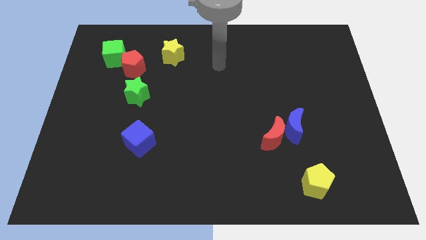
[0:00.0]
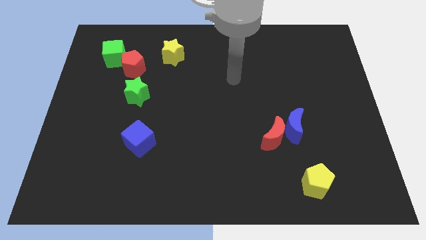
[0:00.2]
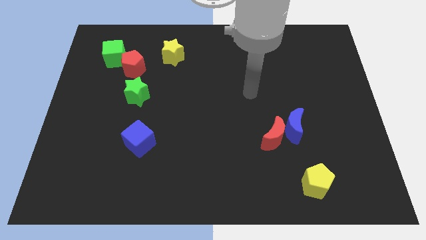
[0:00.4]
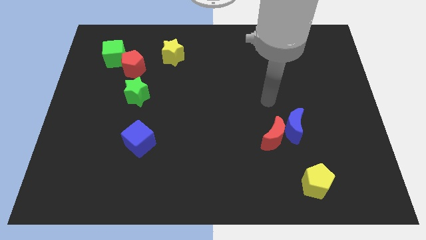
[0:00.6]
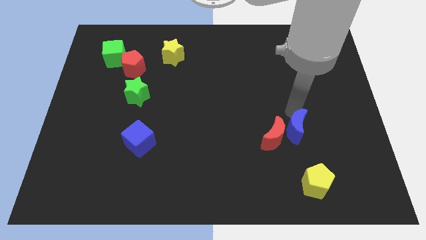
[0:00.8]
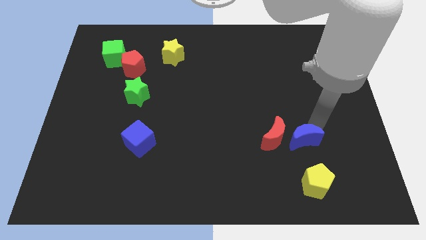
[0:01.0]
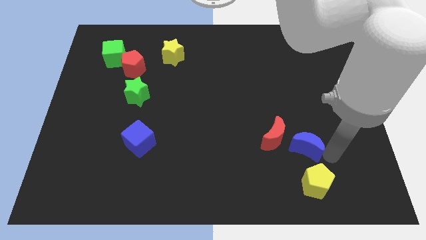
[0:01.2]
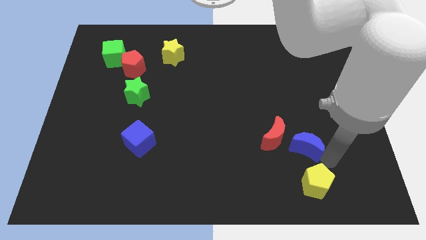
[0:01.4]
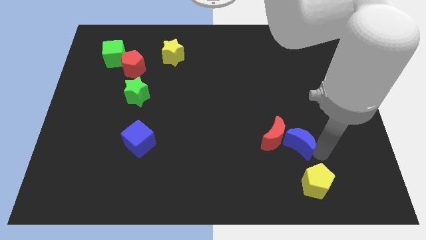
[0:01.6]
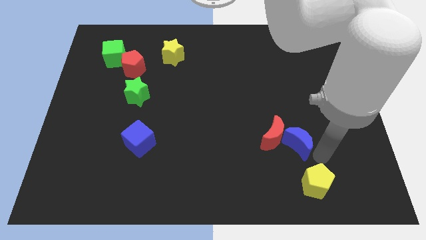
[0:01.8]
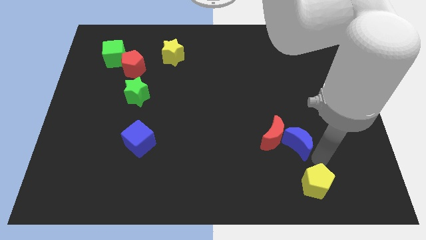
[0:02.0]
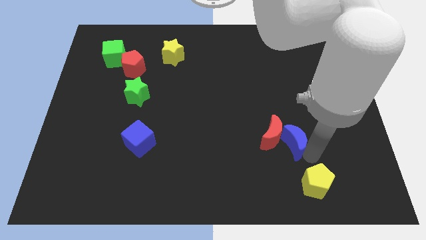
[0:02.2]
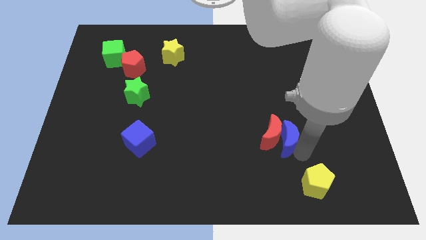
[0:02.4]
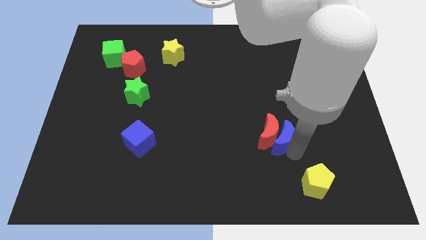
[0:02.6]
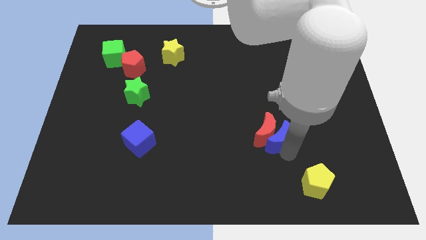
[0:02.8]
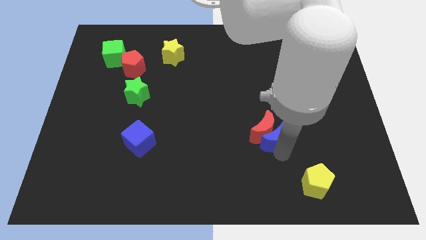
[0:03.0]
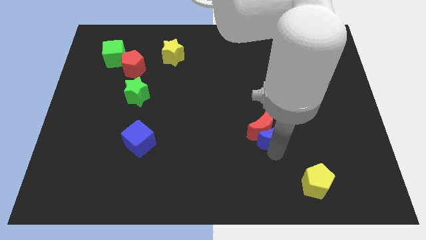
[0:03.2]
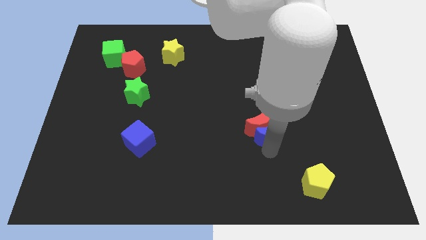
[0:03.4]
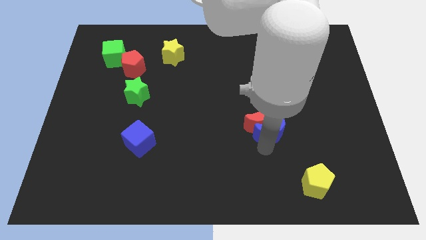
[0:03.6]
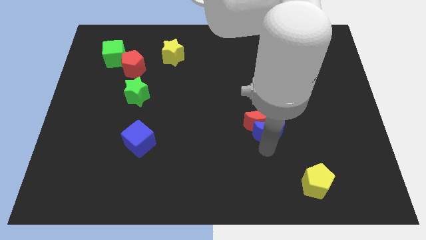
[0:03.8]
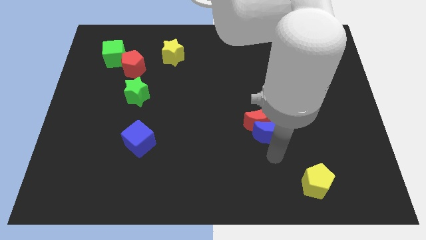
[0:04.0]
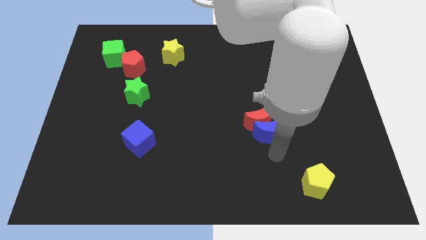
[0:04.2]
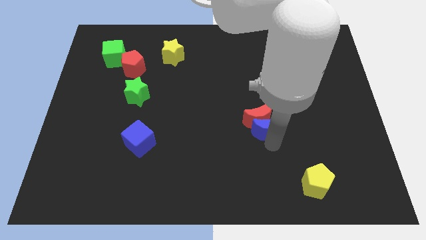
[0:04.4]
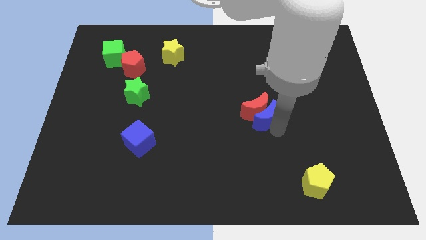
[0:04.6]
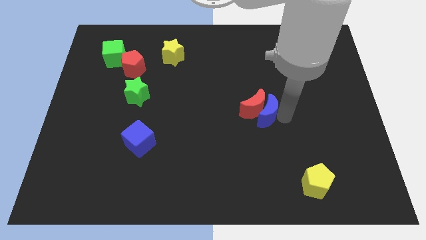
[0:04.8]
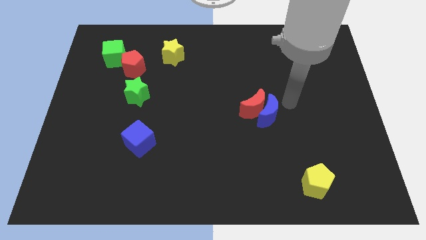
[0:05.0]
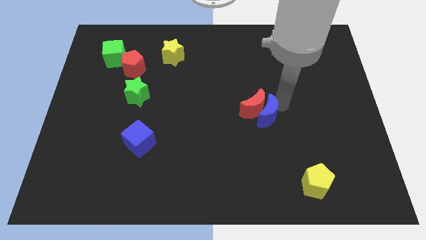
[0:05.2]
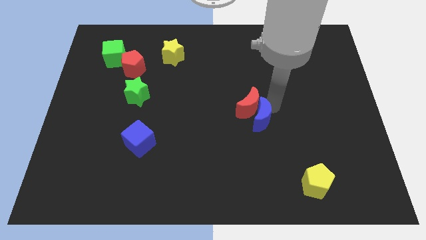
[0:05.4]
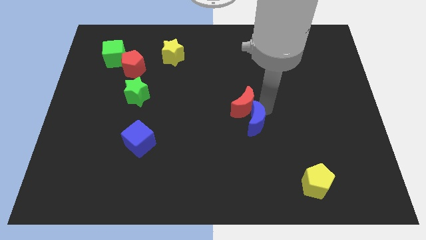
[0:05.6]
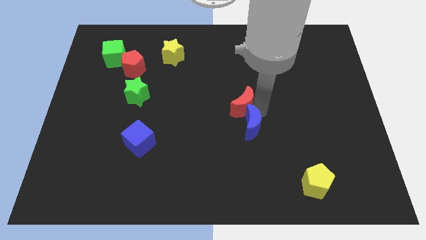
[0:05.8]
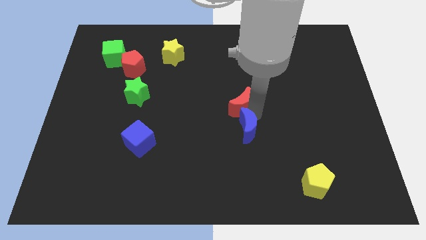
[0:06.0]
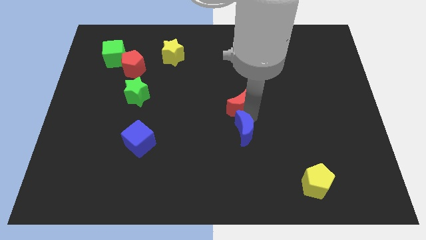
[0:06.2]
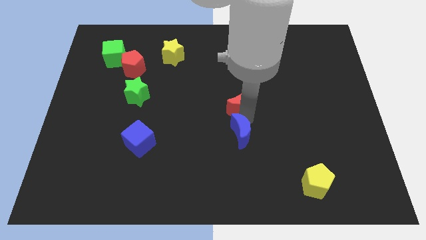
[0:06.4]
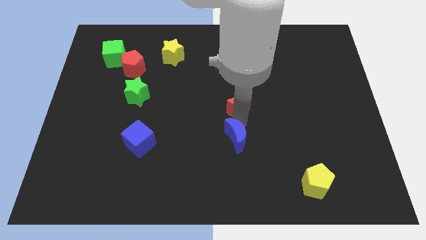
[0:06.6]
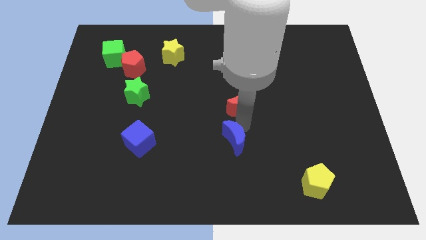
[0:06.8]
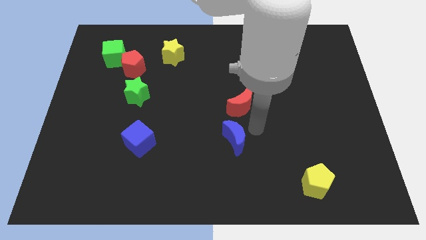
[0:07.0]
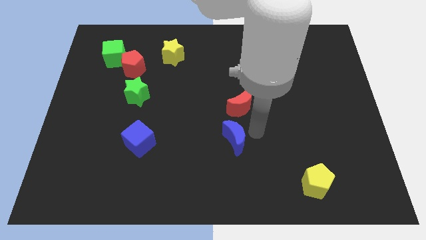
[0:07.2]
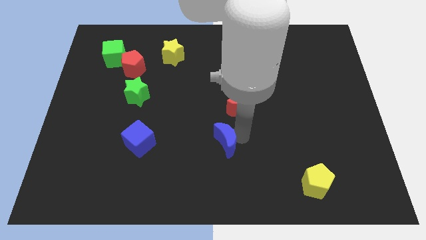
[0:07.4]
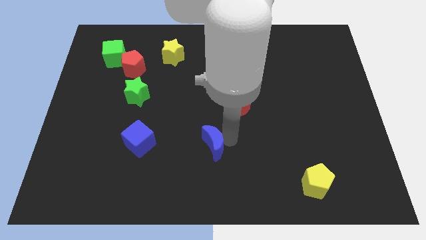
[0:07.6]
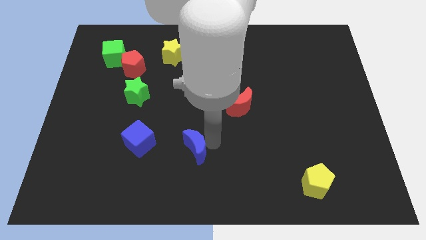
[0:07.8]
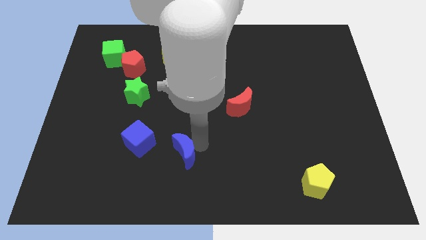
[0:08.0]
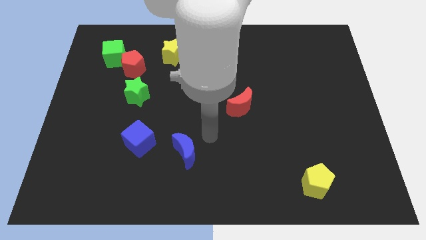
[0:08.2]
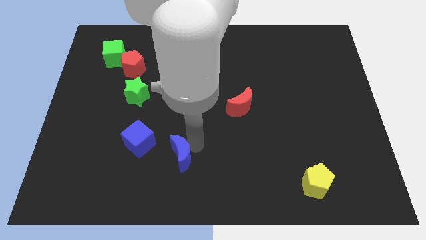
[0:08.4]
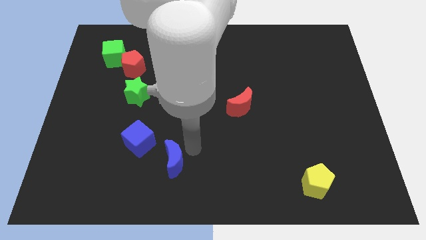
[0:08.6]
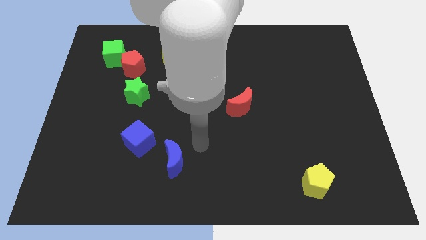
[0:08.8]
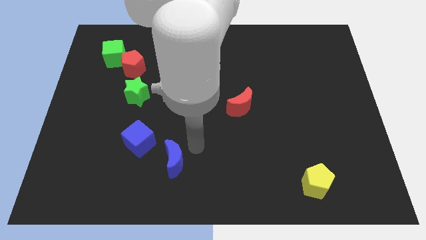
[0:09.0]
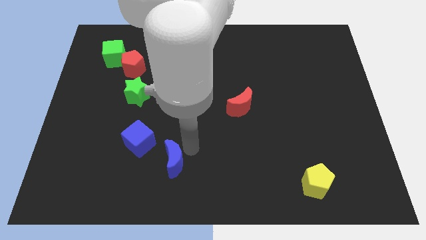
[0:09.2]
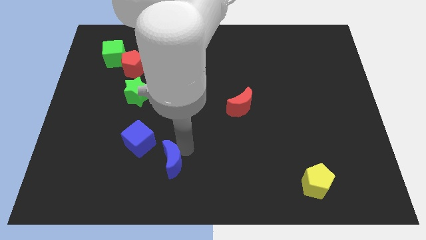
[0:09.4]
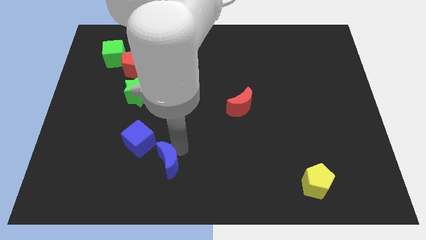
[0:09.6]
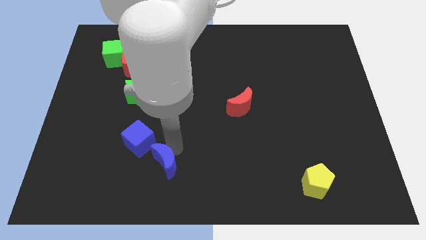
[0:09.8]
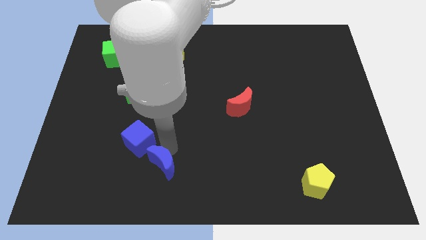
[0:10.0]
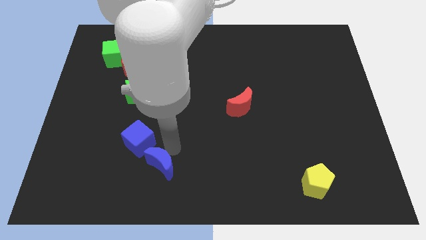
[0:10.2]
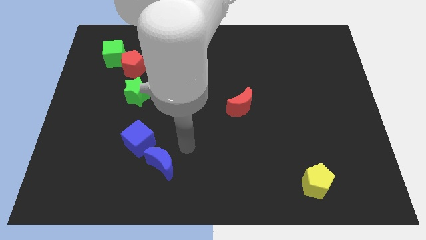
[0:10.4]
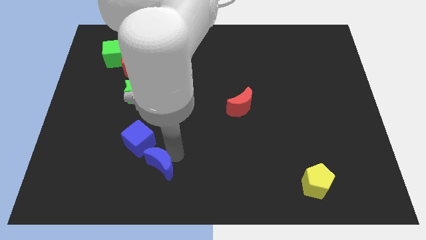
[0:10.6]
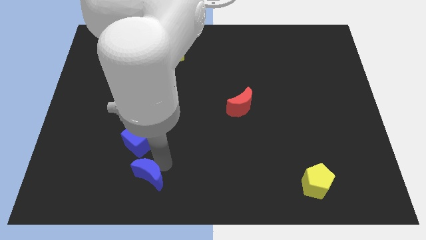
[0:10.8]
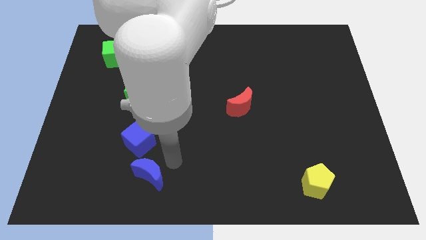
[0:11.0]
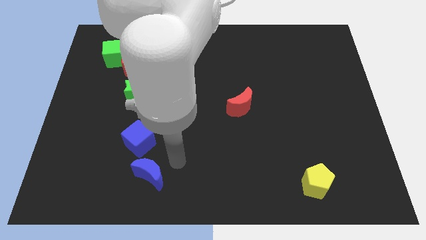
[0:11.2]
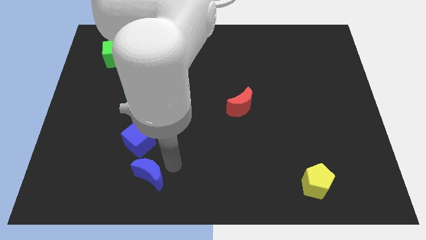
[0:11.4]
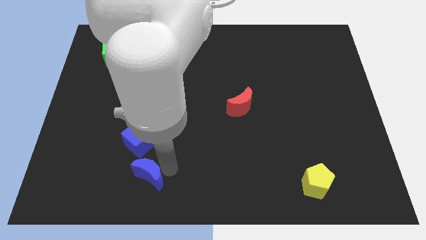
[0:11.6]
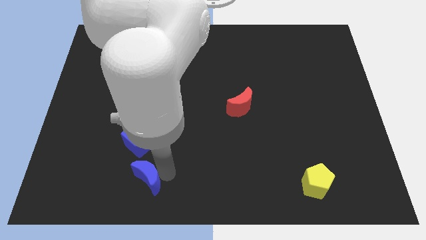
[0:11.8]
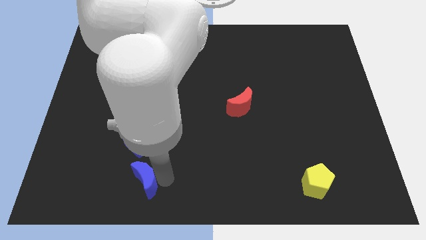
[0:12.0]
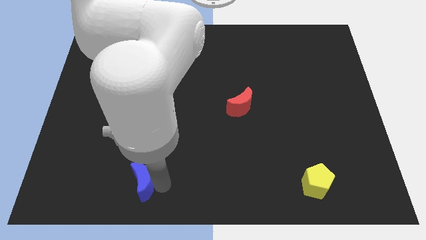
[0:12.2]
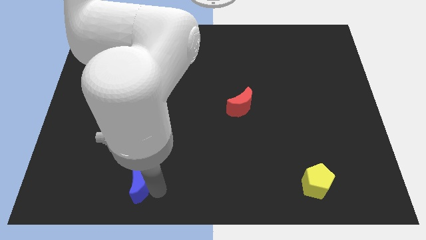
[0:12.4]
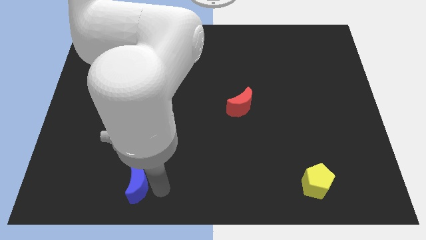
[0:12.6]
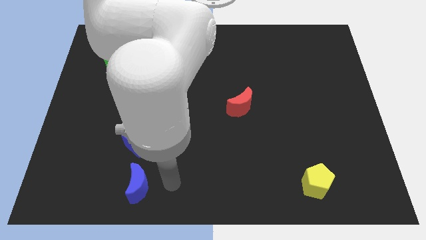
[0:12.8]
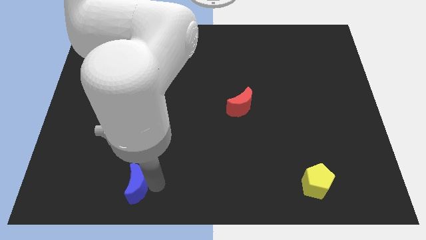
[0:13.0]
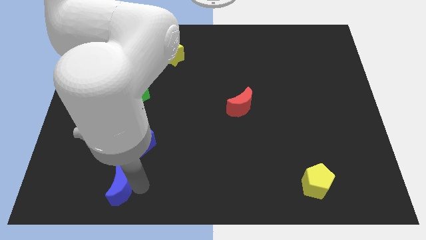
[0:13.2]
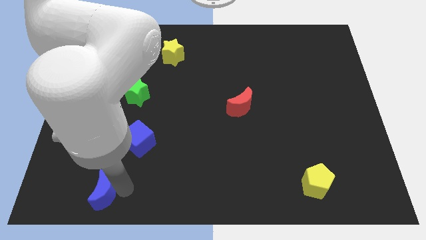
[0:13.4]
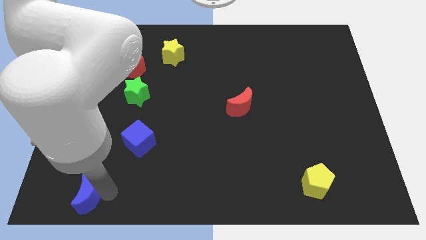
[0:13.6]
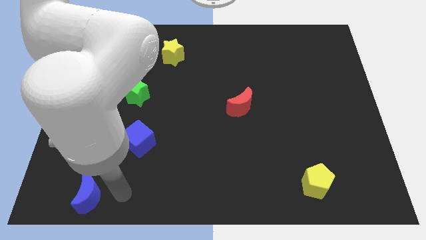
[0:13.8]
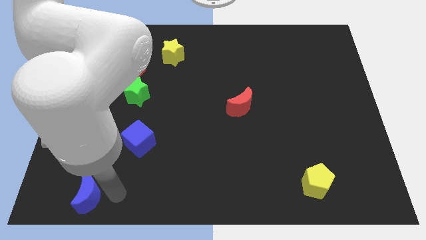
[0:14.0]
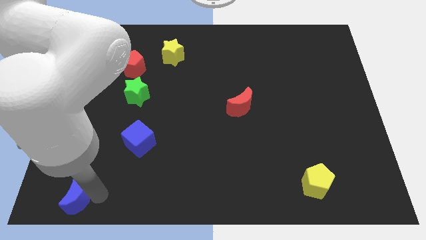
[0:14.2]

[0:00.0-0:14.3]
move the blue moon to the bottom left
